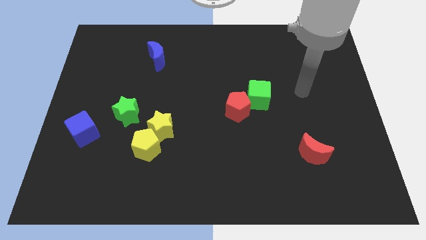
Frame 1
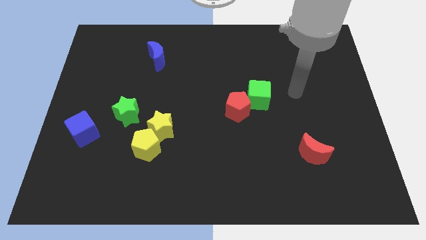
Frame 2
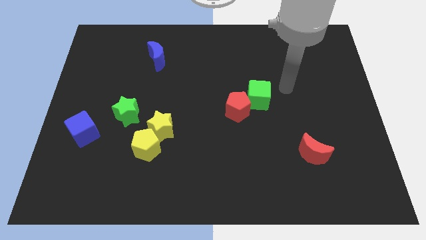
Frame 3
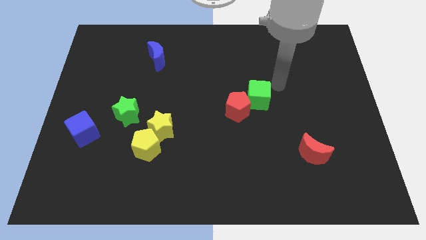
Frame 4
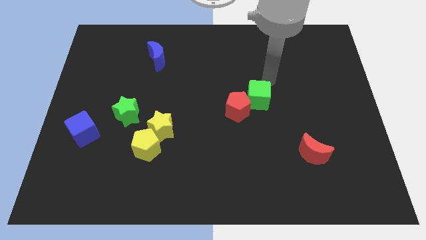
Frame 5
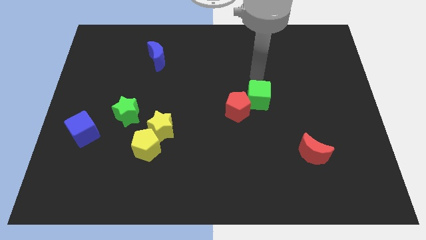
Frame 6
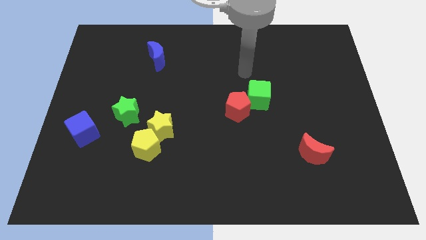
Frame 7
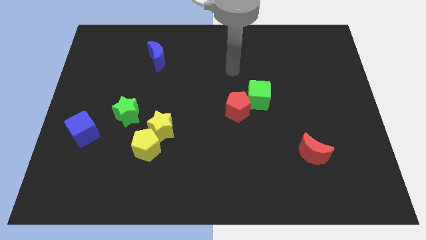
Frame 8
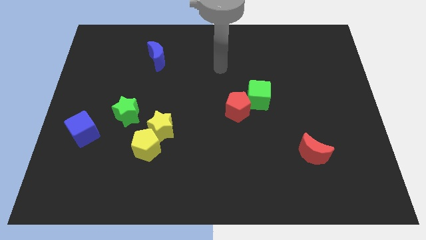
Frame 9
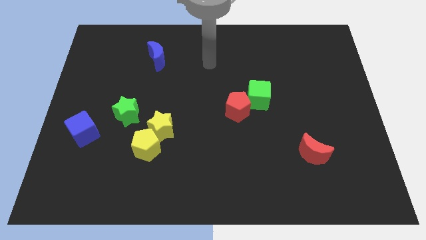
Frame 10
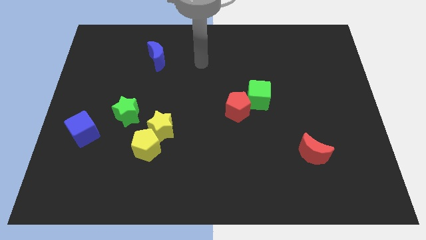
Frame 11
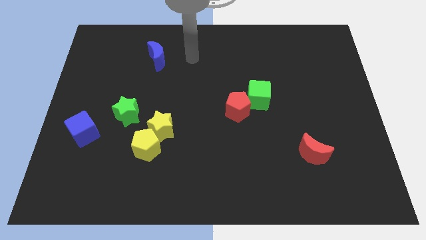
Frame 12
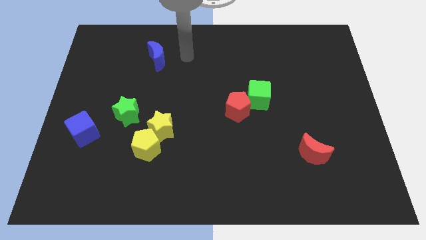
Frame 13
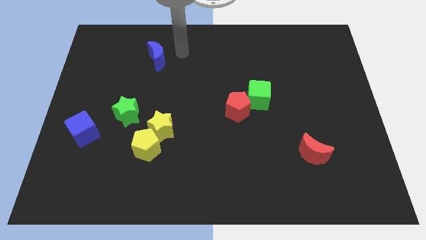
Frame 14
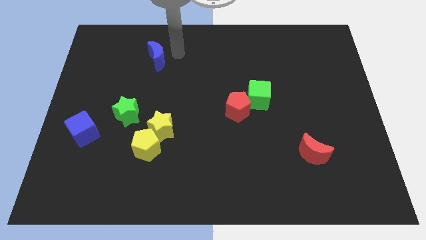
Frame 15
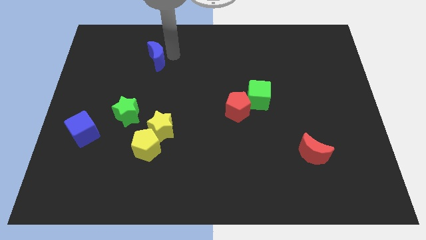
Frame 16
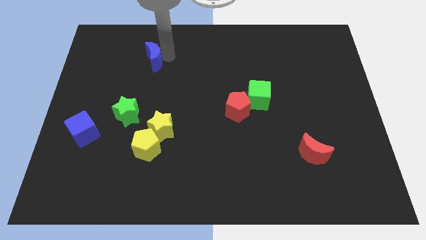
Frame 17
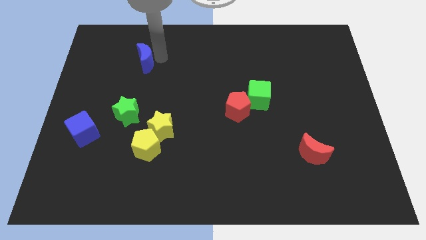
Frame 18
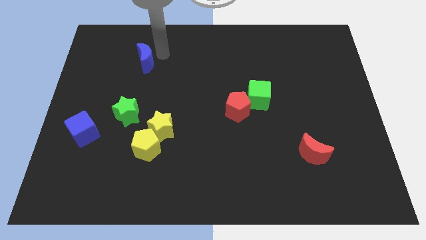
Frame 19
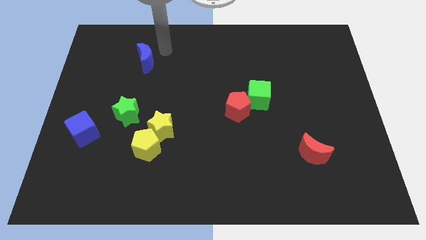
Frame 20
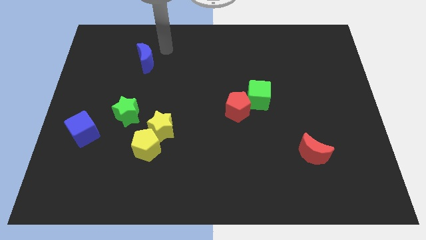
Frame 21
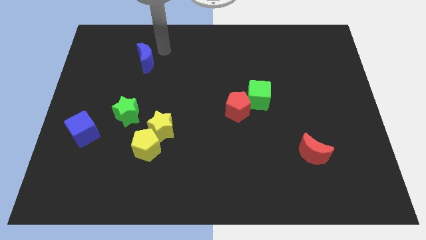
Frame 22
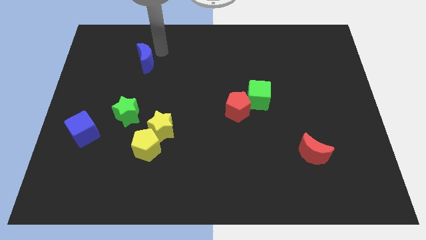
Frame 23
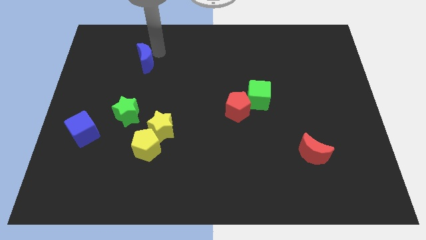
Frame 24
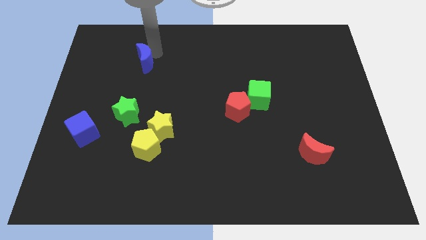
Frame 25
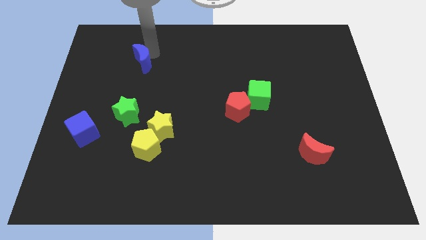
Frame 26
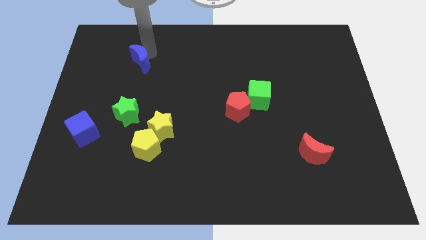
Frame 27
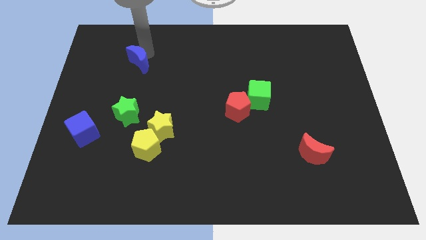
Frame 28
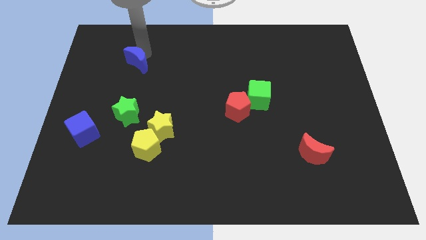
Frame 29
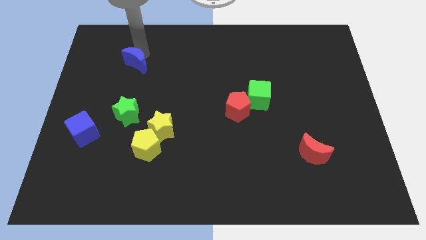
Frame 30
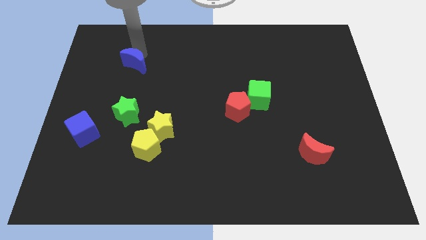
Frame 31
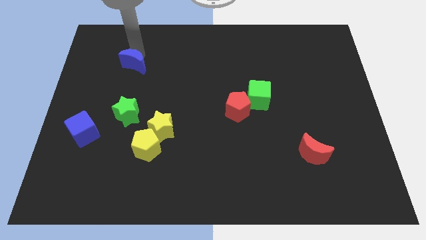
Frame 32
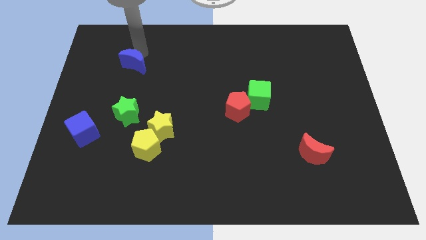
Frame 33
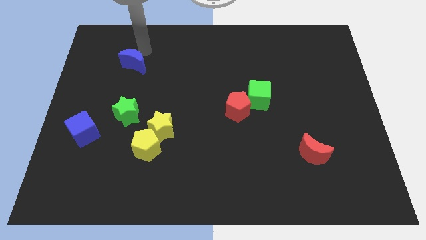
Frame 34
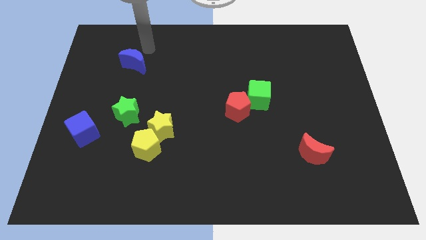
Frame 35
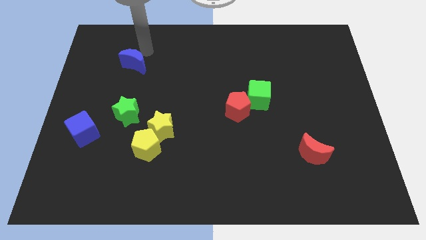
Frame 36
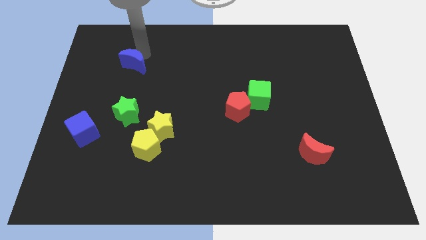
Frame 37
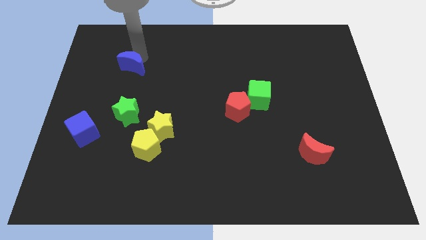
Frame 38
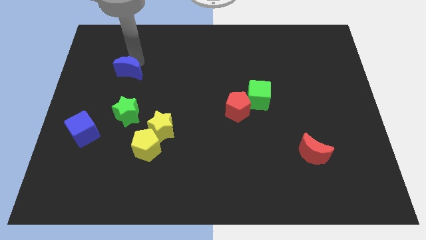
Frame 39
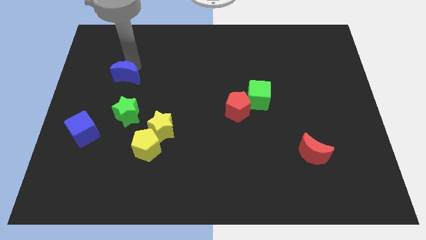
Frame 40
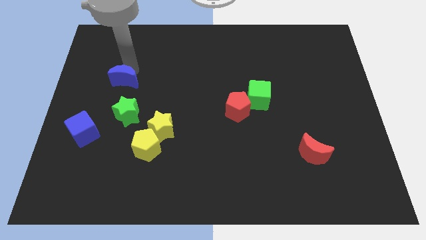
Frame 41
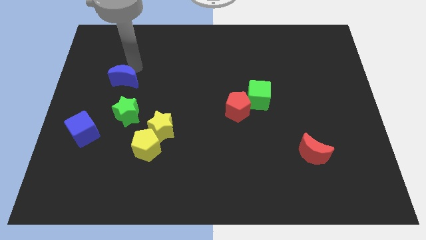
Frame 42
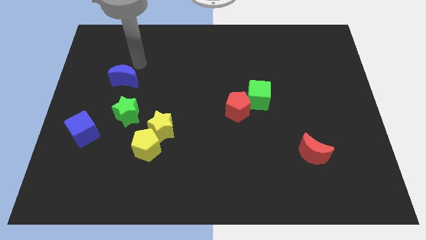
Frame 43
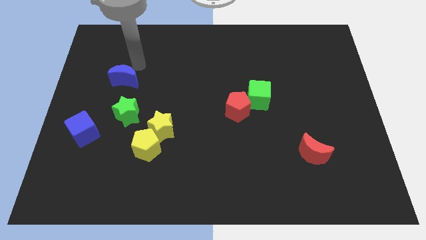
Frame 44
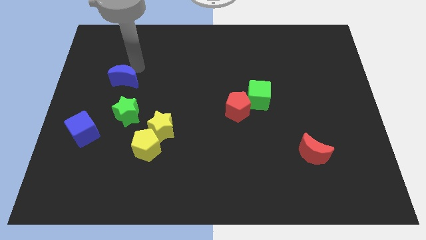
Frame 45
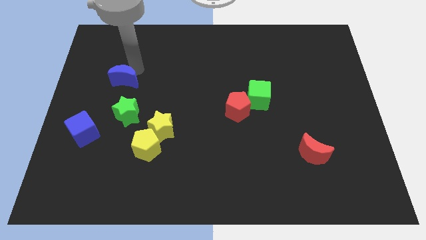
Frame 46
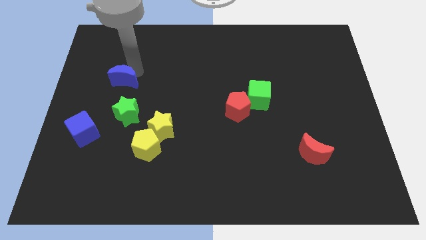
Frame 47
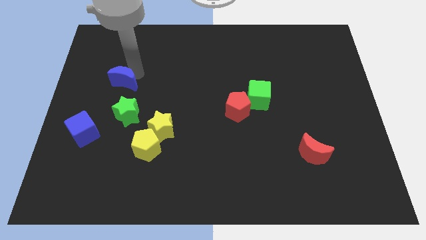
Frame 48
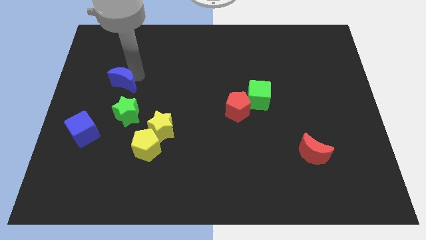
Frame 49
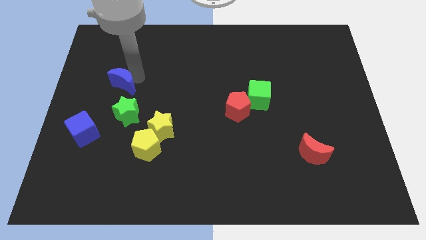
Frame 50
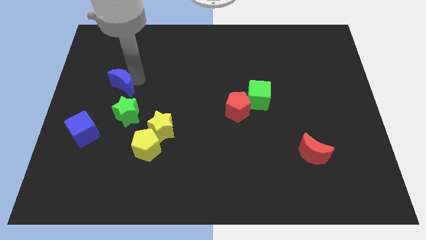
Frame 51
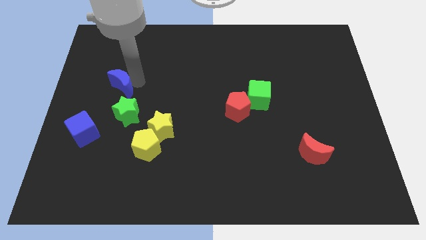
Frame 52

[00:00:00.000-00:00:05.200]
put the blue moon to the top left of the green star

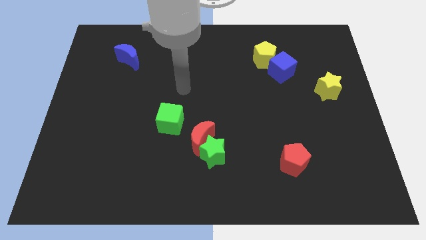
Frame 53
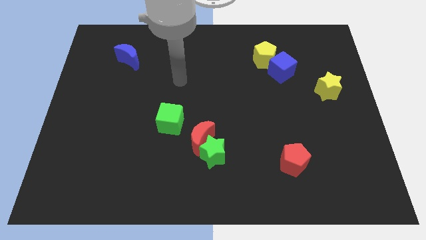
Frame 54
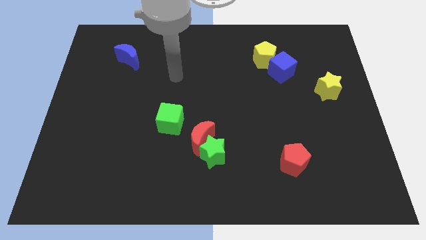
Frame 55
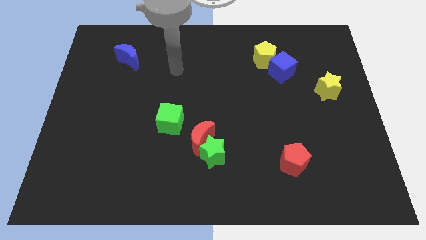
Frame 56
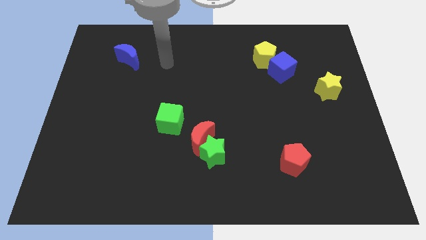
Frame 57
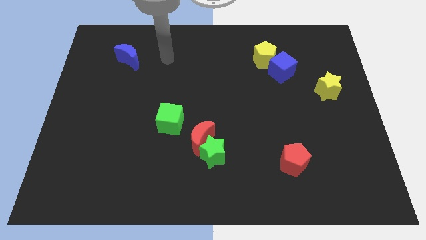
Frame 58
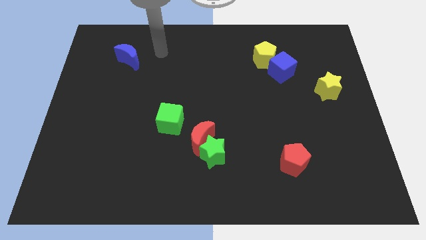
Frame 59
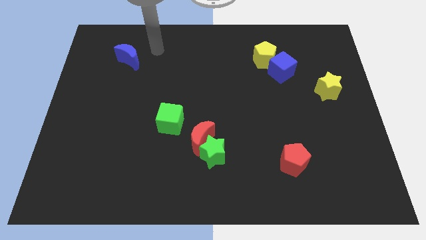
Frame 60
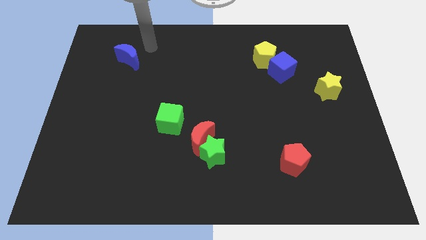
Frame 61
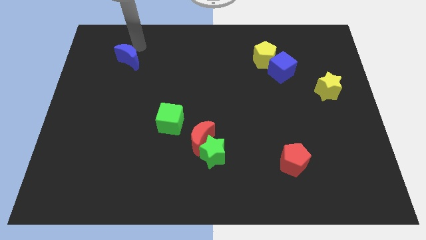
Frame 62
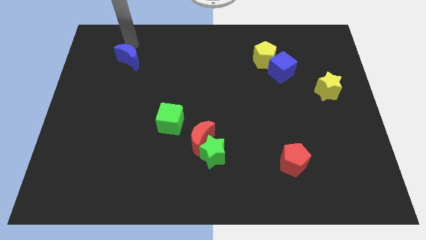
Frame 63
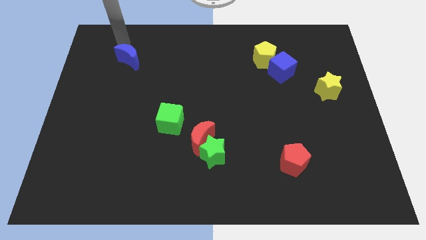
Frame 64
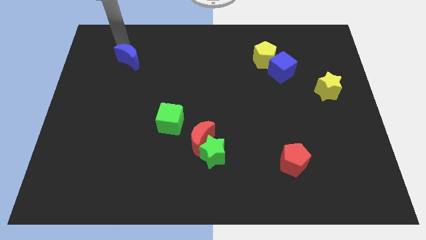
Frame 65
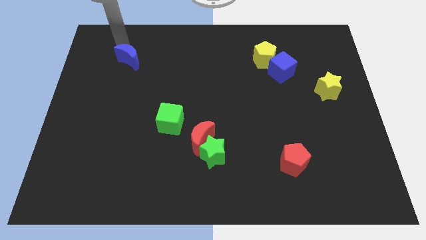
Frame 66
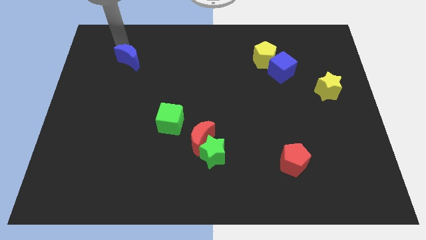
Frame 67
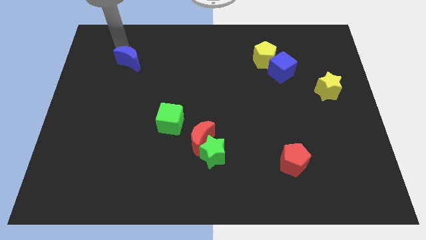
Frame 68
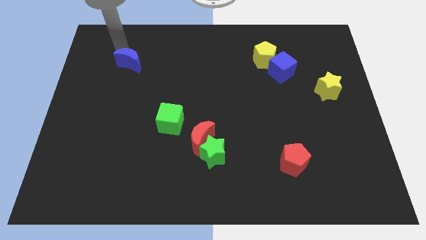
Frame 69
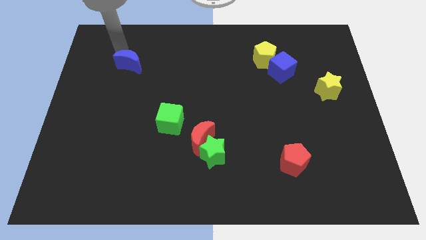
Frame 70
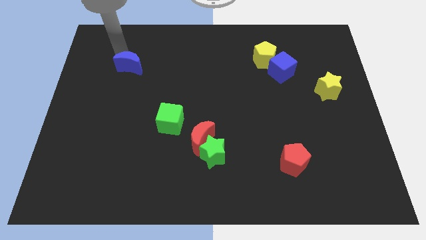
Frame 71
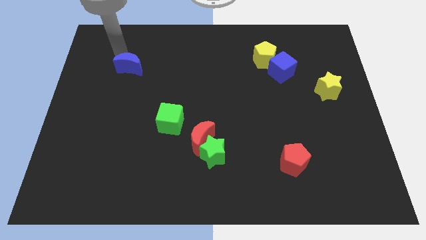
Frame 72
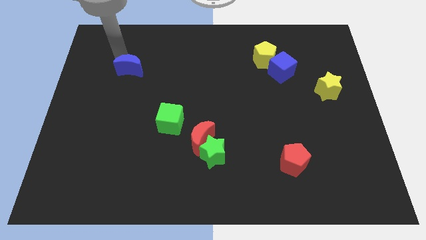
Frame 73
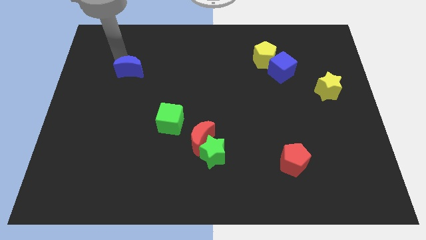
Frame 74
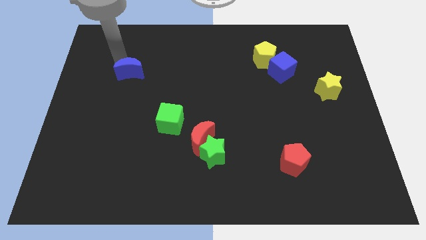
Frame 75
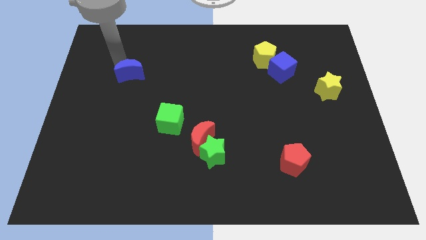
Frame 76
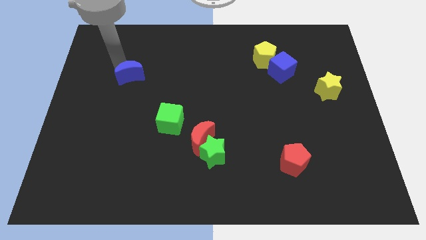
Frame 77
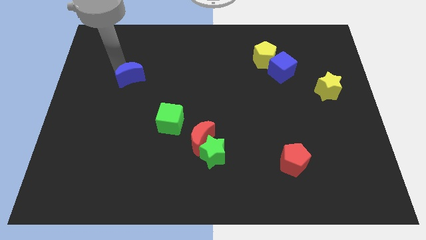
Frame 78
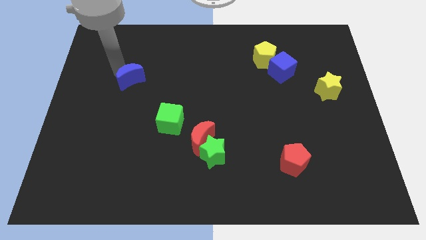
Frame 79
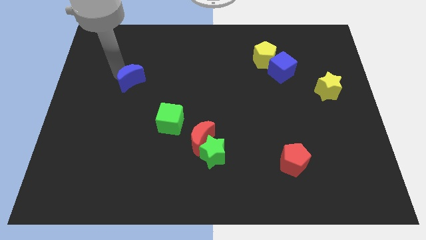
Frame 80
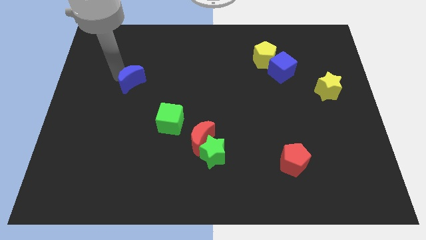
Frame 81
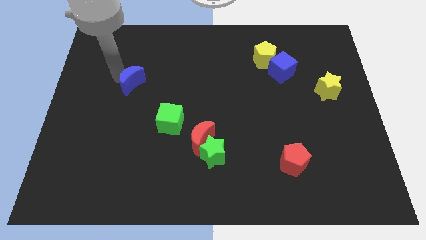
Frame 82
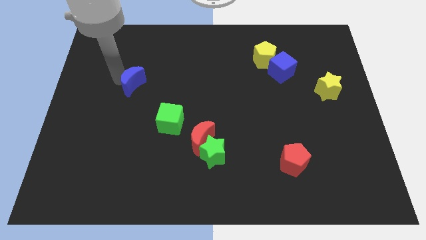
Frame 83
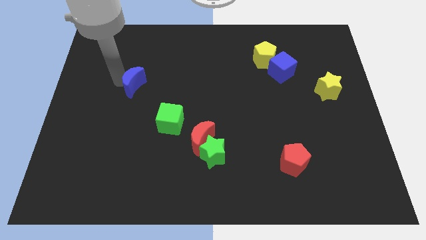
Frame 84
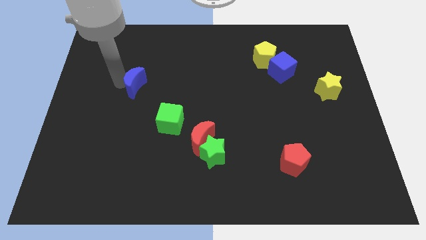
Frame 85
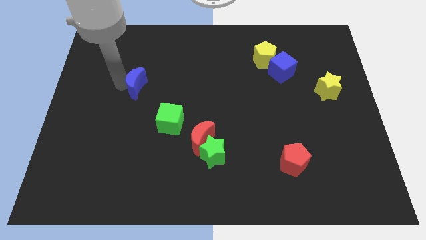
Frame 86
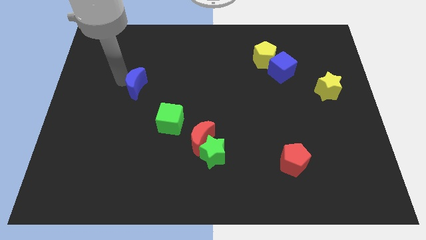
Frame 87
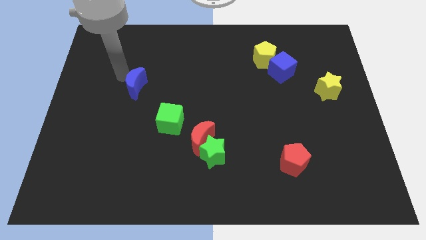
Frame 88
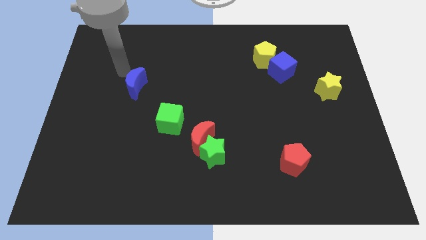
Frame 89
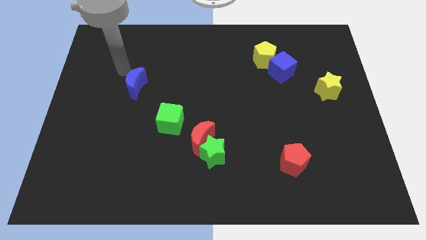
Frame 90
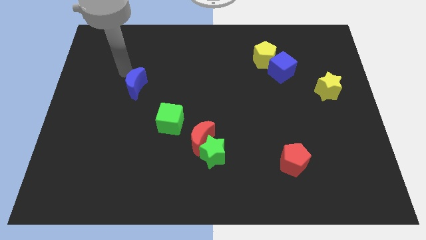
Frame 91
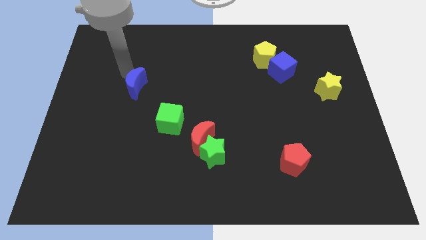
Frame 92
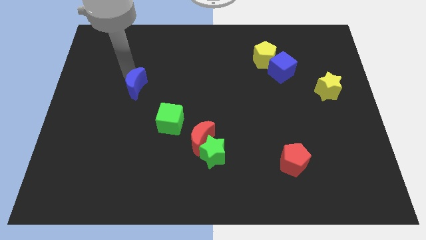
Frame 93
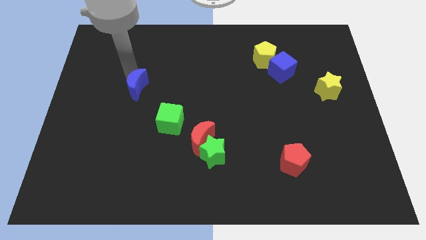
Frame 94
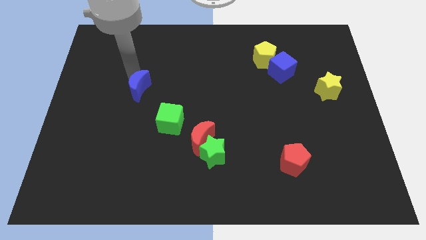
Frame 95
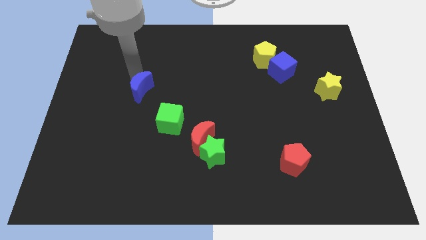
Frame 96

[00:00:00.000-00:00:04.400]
put the blue moon to the top left side of the green cube
